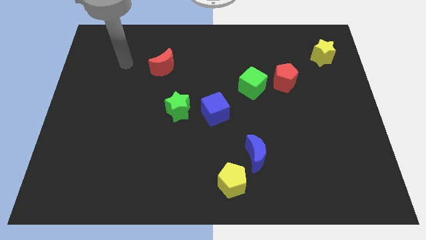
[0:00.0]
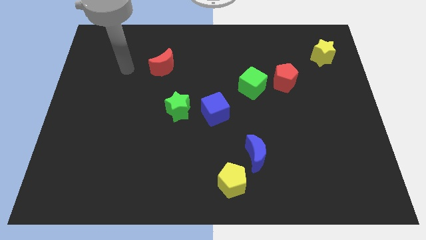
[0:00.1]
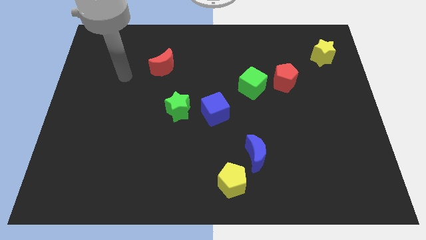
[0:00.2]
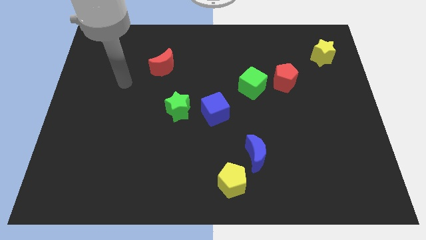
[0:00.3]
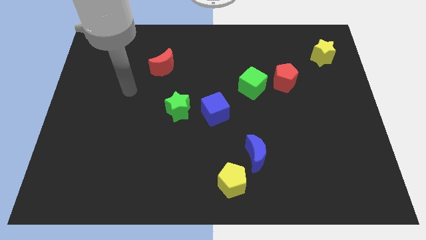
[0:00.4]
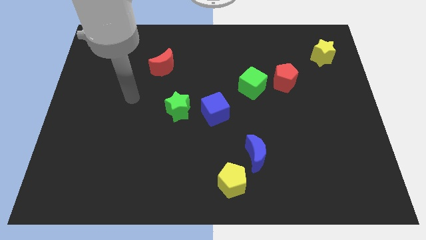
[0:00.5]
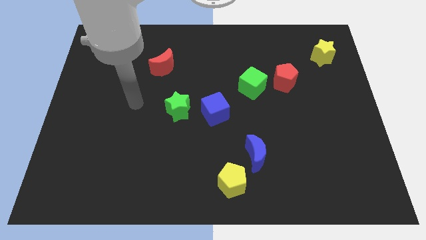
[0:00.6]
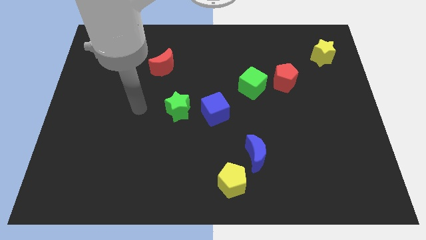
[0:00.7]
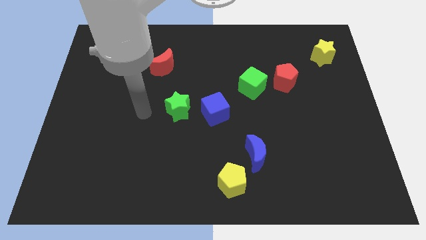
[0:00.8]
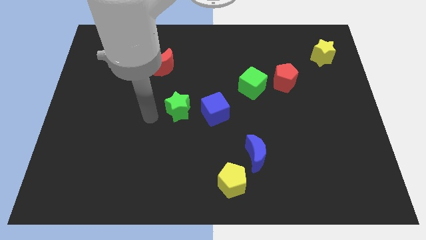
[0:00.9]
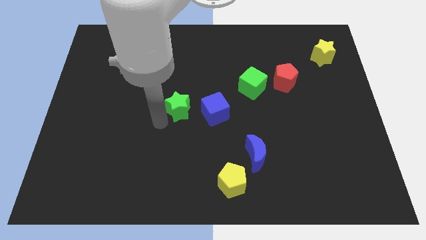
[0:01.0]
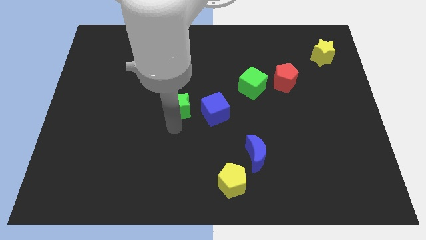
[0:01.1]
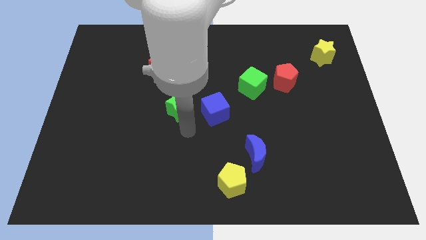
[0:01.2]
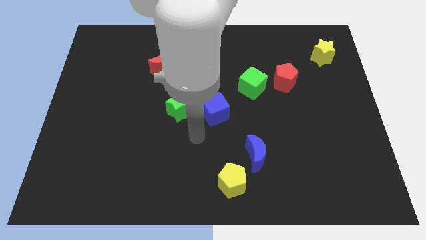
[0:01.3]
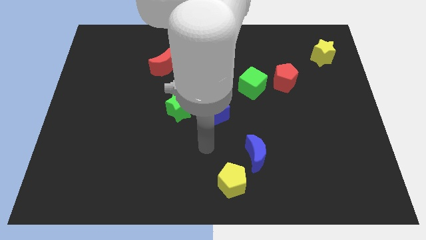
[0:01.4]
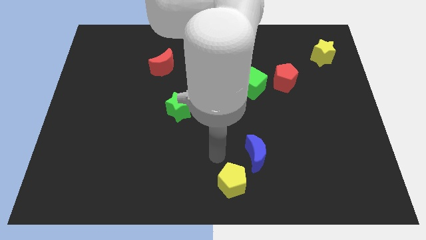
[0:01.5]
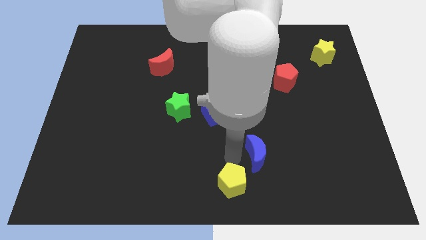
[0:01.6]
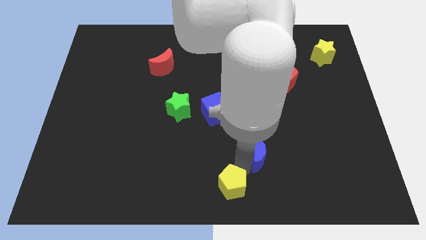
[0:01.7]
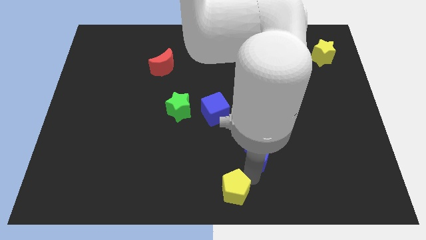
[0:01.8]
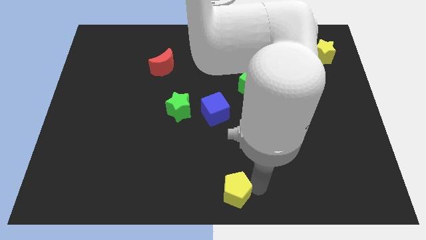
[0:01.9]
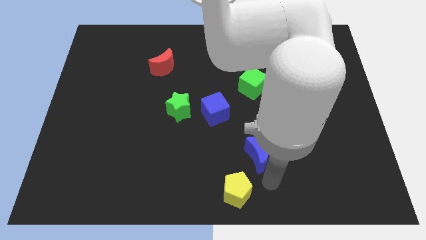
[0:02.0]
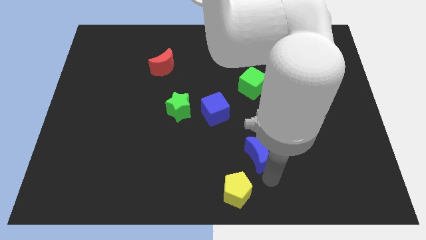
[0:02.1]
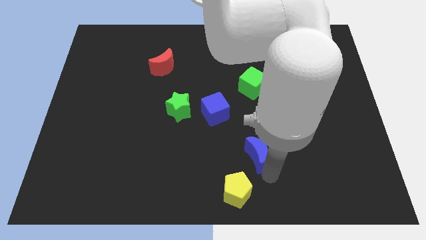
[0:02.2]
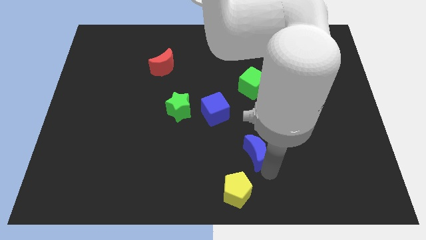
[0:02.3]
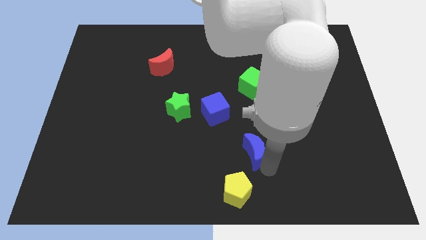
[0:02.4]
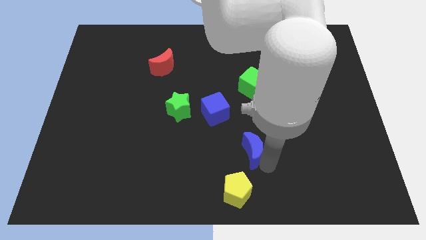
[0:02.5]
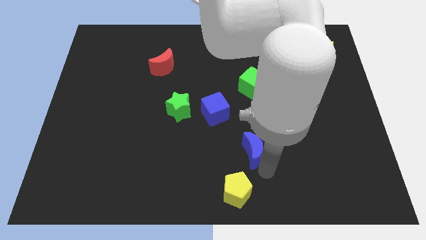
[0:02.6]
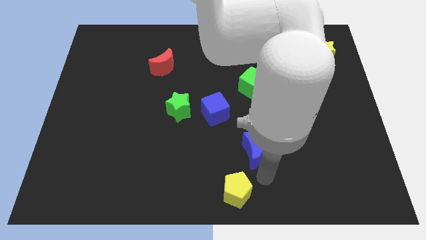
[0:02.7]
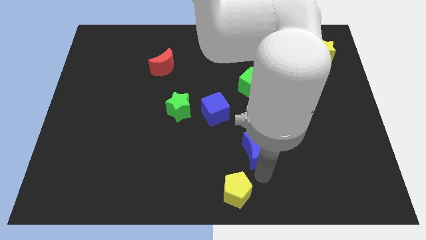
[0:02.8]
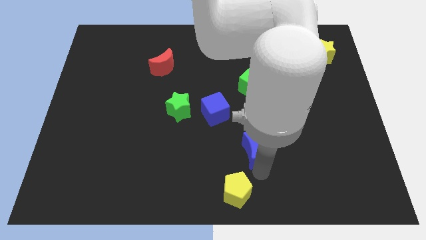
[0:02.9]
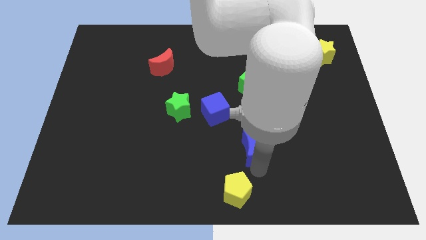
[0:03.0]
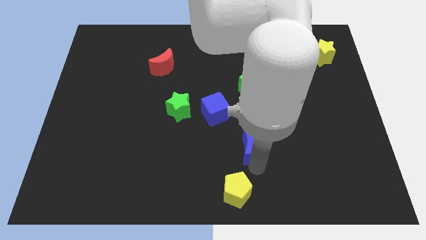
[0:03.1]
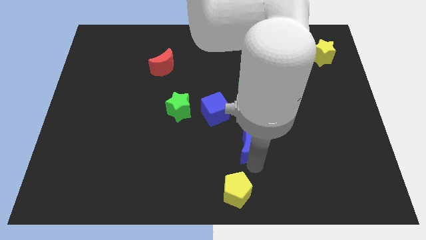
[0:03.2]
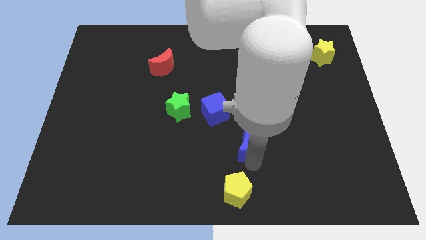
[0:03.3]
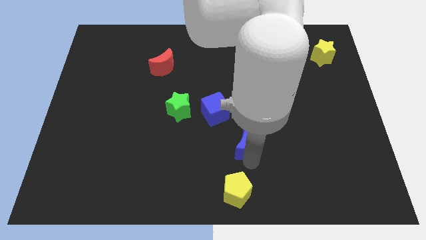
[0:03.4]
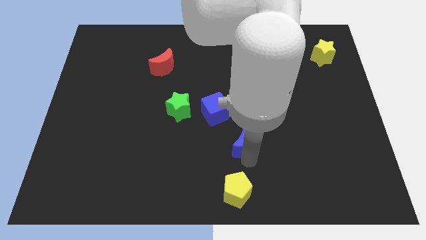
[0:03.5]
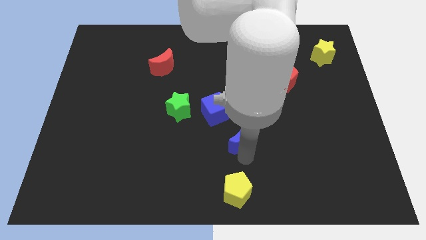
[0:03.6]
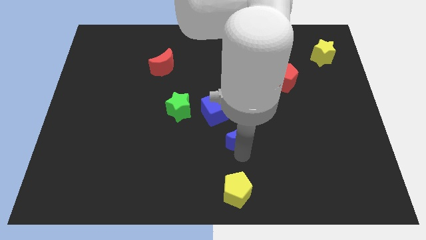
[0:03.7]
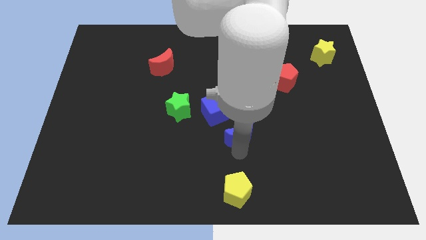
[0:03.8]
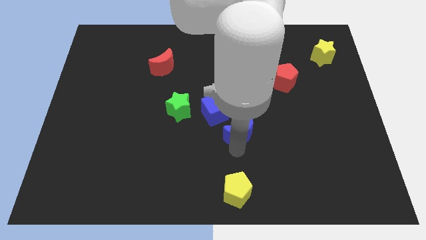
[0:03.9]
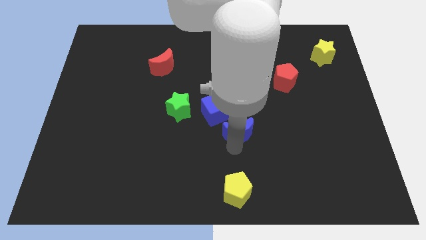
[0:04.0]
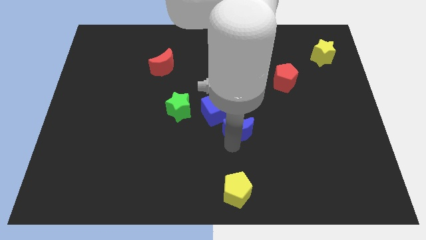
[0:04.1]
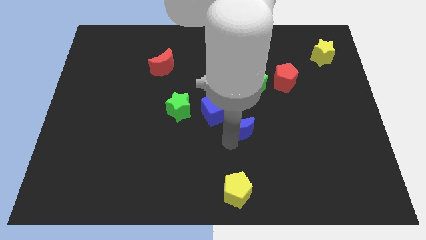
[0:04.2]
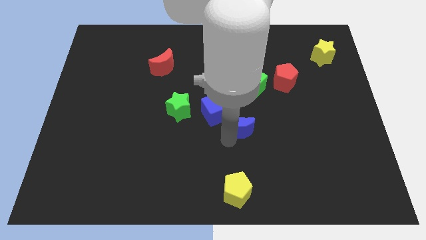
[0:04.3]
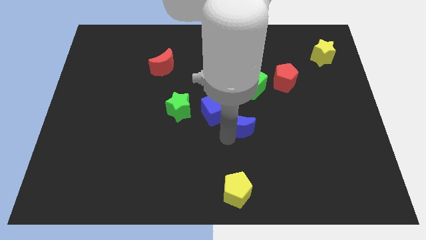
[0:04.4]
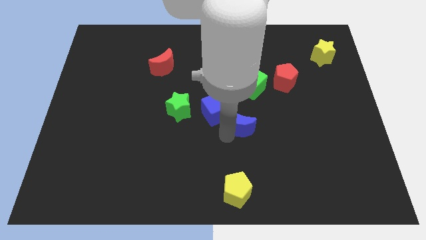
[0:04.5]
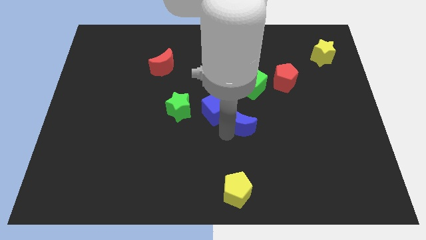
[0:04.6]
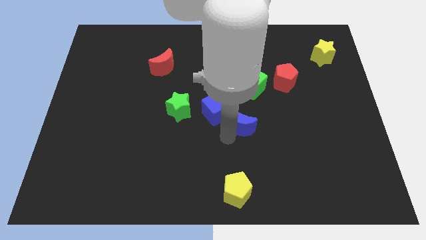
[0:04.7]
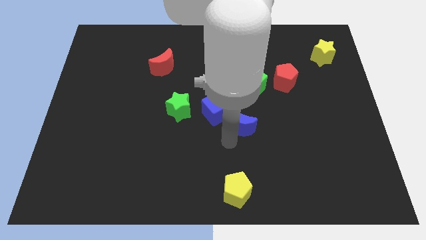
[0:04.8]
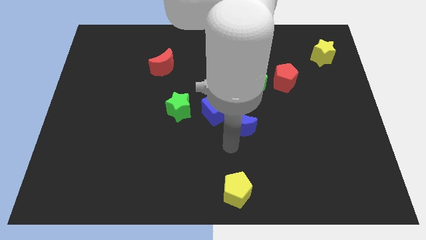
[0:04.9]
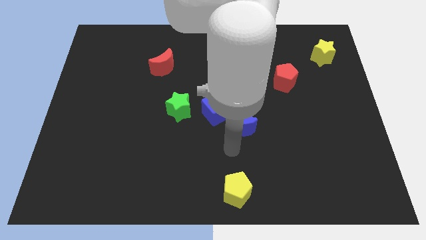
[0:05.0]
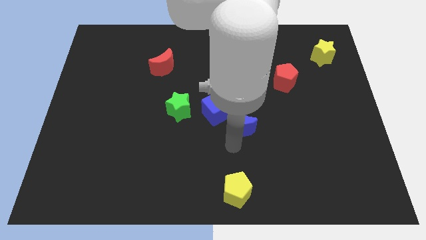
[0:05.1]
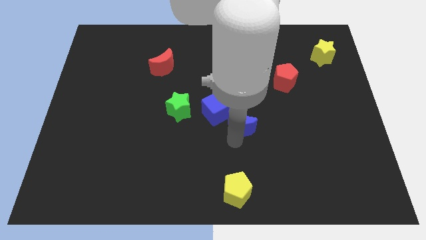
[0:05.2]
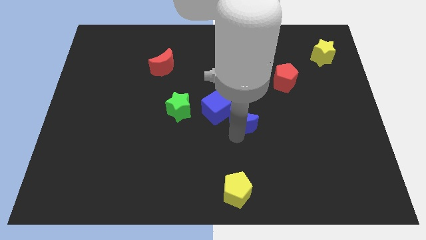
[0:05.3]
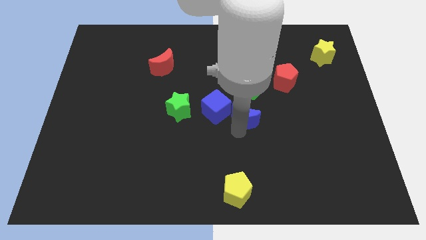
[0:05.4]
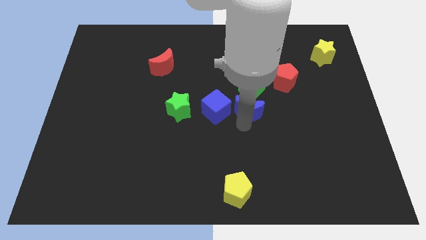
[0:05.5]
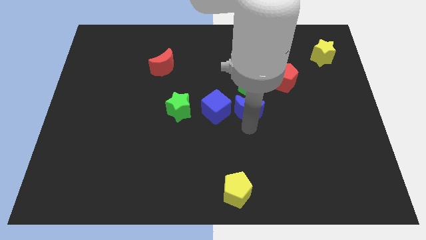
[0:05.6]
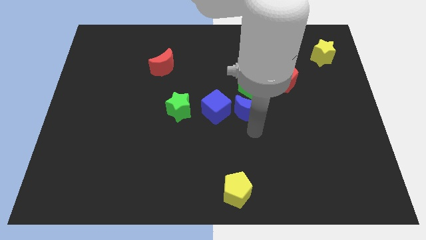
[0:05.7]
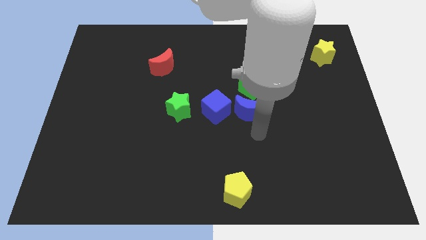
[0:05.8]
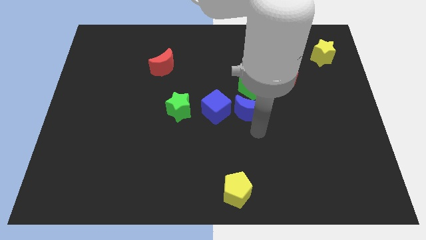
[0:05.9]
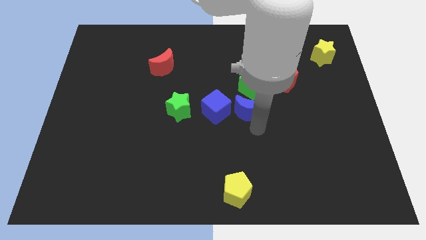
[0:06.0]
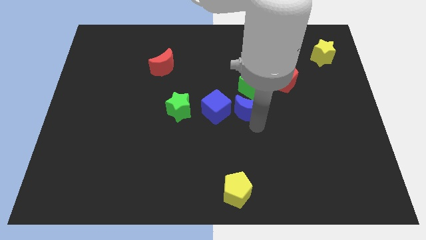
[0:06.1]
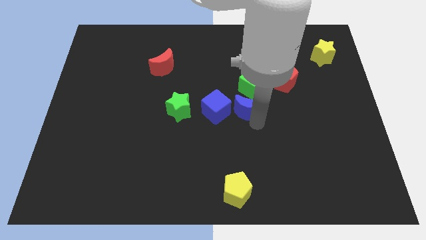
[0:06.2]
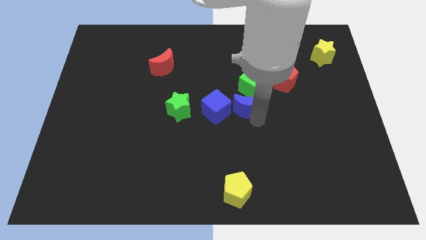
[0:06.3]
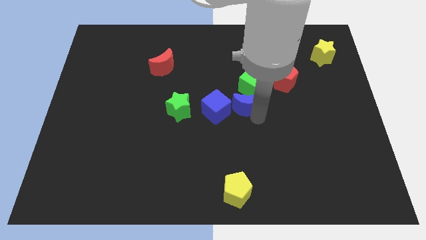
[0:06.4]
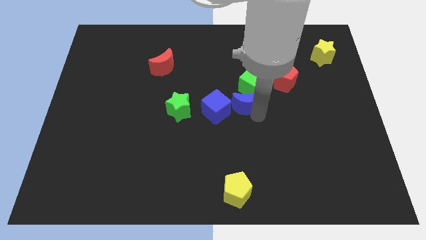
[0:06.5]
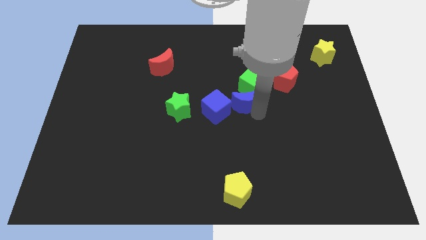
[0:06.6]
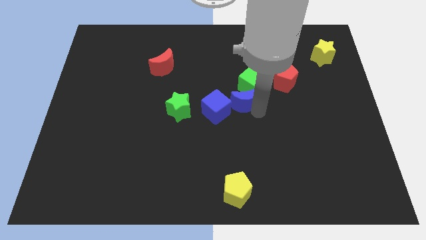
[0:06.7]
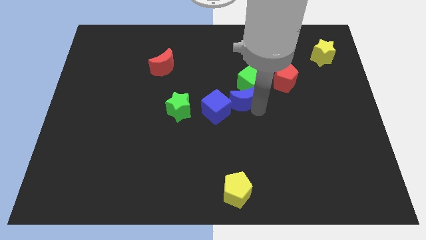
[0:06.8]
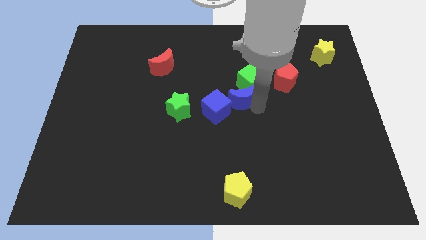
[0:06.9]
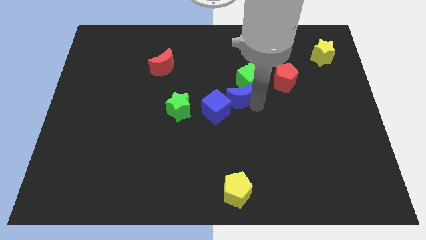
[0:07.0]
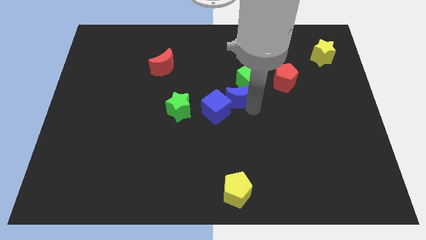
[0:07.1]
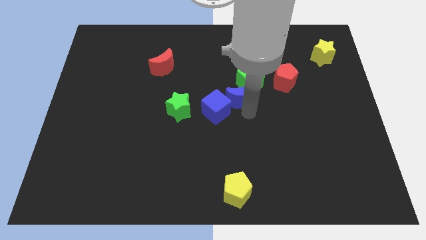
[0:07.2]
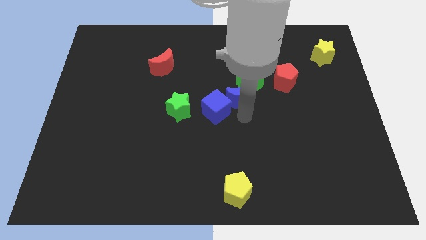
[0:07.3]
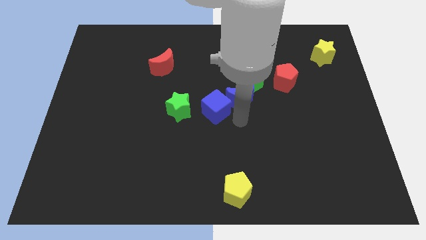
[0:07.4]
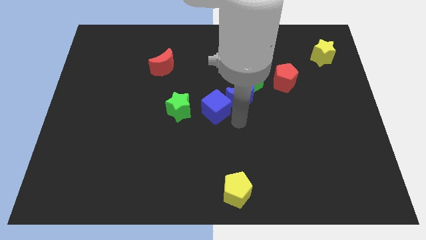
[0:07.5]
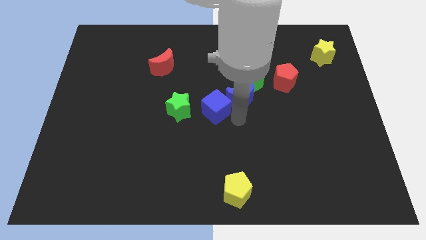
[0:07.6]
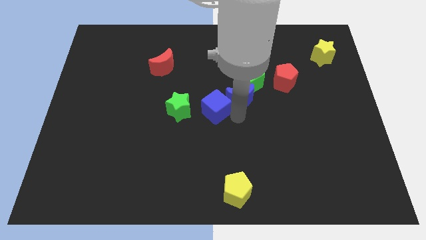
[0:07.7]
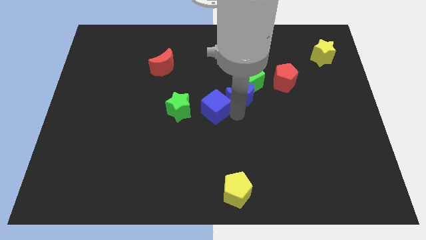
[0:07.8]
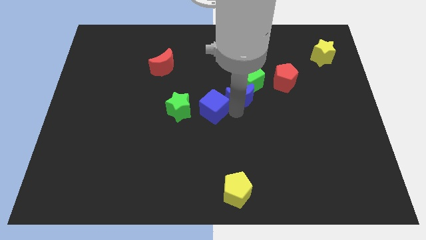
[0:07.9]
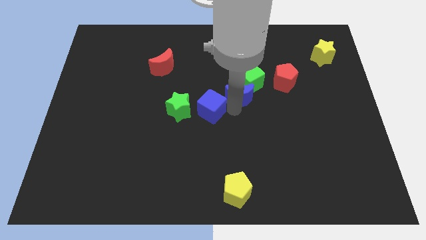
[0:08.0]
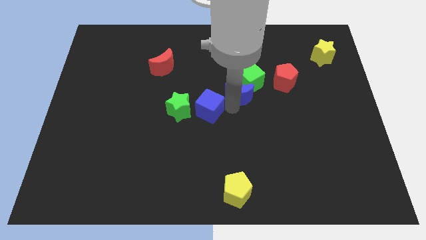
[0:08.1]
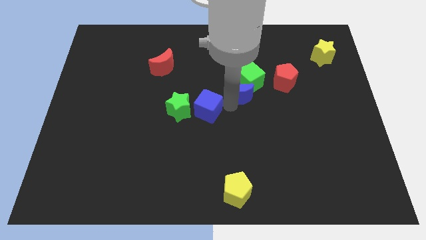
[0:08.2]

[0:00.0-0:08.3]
slide the blue moon just left of the red pentagon
